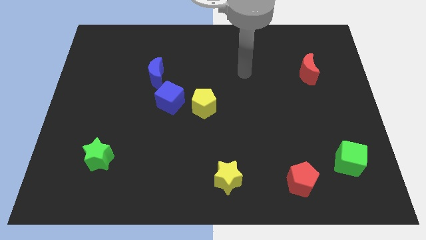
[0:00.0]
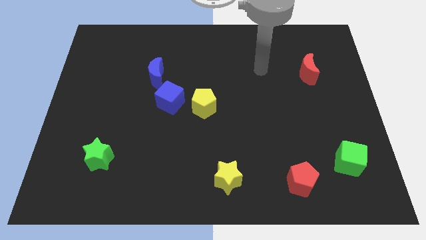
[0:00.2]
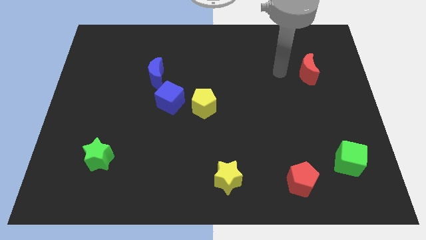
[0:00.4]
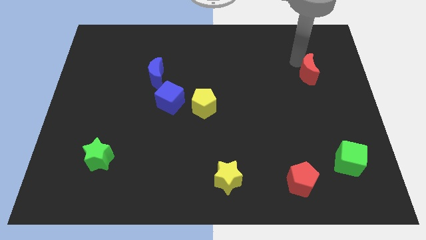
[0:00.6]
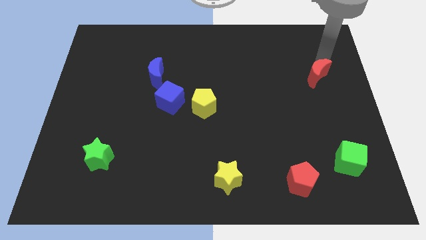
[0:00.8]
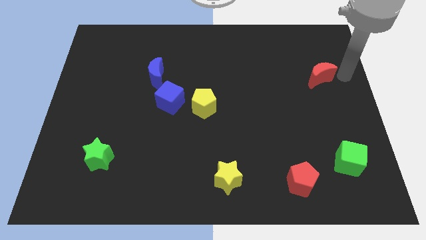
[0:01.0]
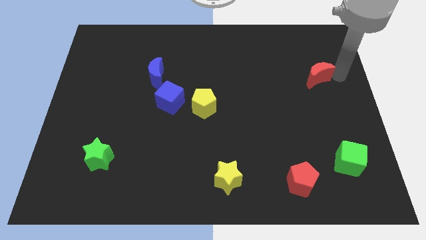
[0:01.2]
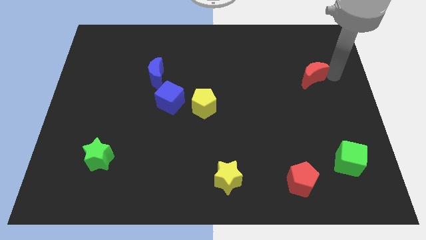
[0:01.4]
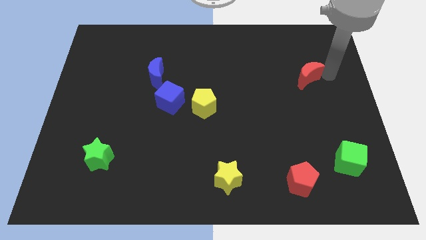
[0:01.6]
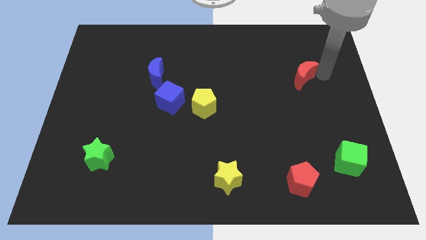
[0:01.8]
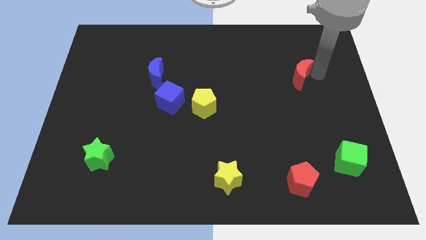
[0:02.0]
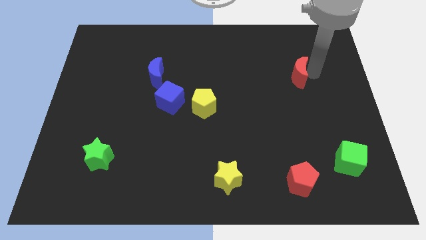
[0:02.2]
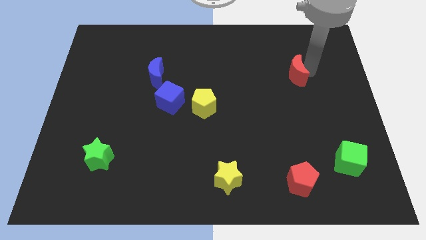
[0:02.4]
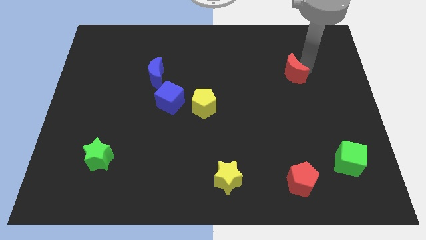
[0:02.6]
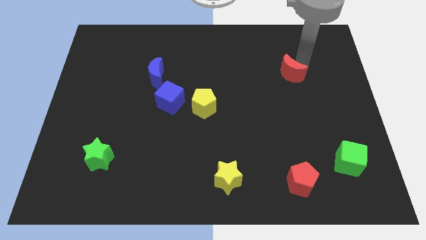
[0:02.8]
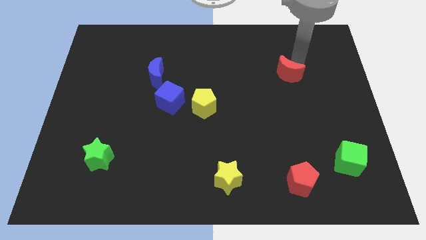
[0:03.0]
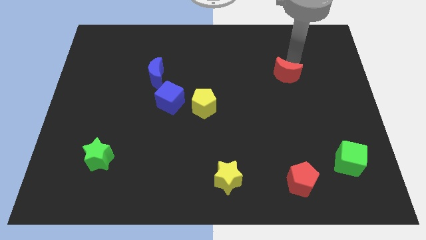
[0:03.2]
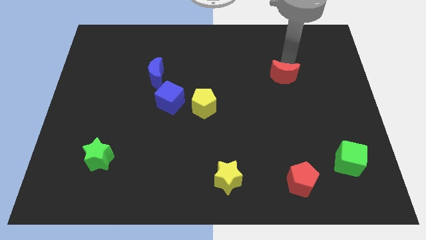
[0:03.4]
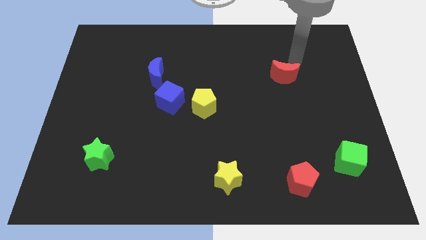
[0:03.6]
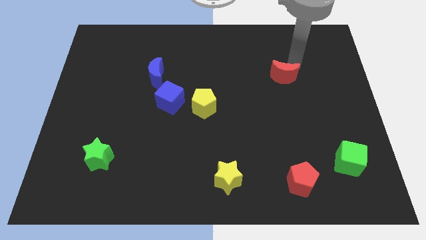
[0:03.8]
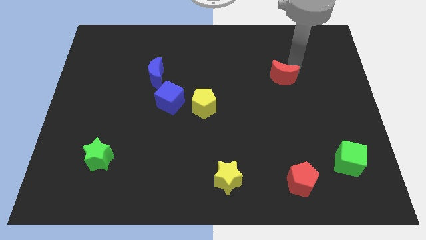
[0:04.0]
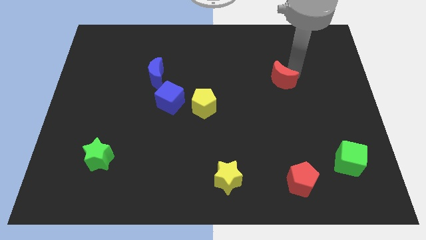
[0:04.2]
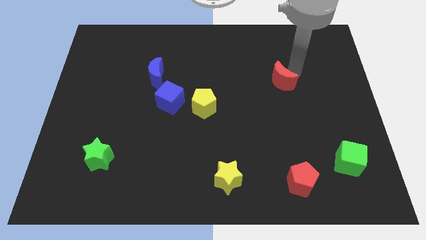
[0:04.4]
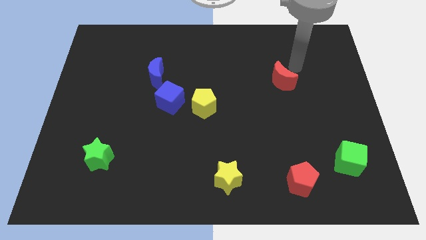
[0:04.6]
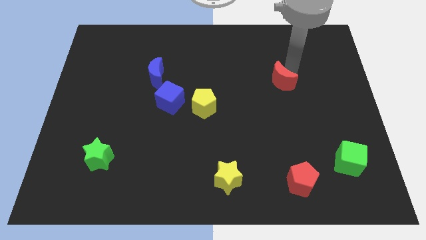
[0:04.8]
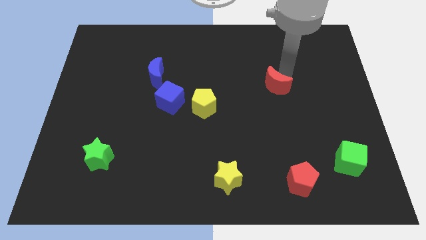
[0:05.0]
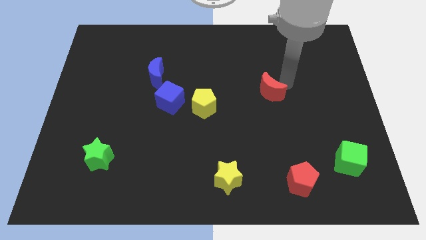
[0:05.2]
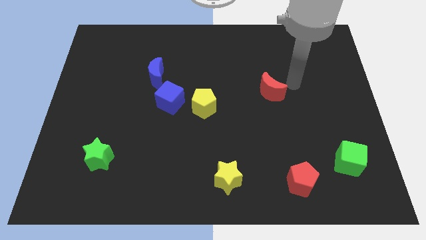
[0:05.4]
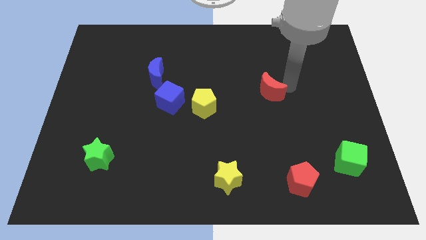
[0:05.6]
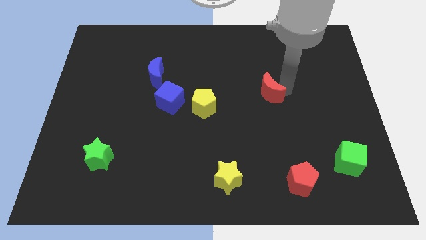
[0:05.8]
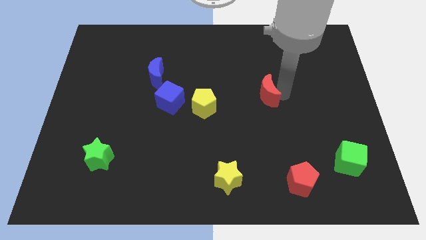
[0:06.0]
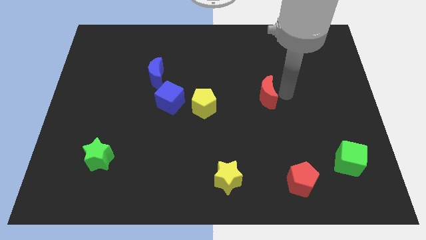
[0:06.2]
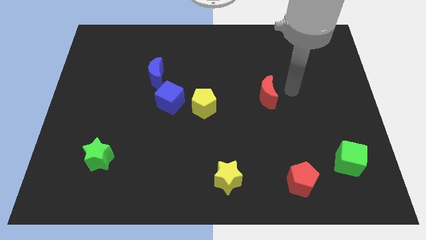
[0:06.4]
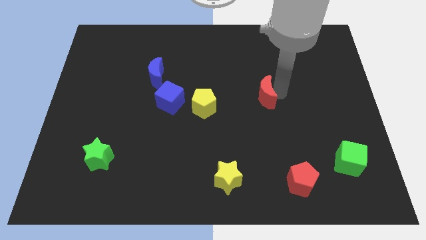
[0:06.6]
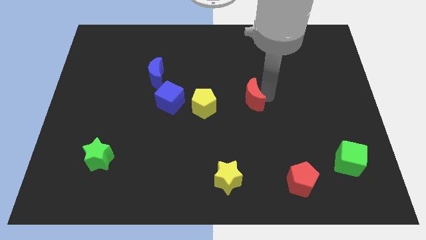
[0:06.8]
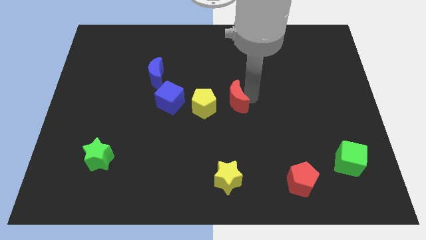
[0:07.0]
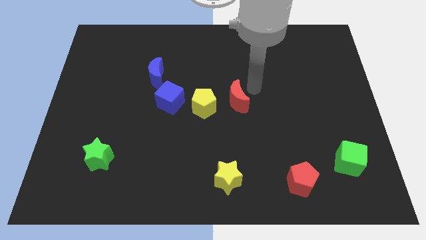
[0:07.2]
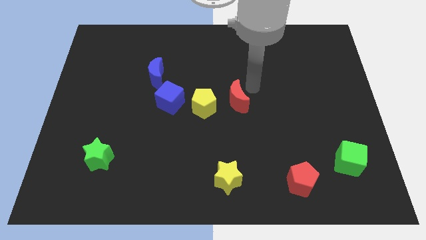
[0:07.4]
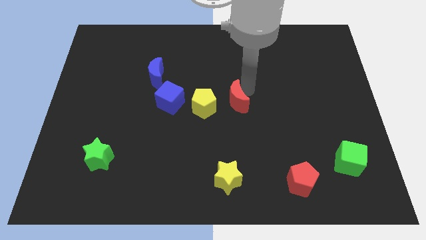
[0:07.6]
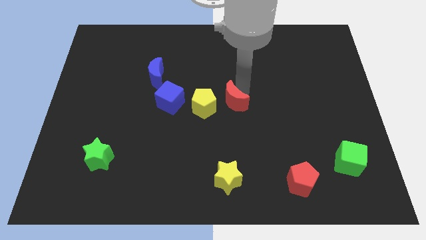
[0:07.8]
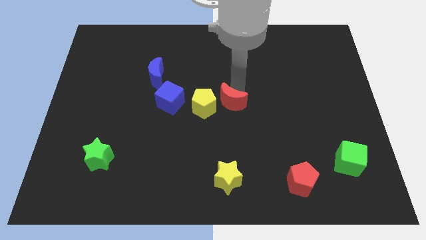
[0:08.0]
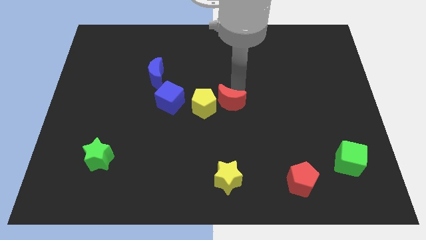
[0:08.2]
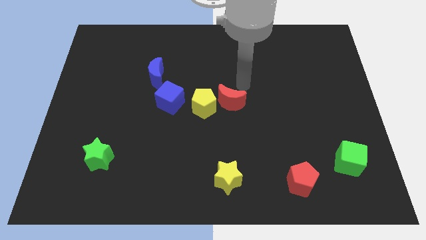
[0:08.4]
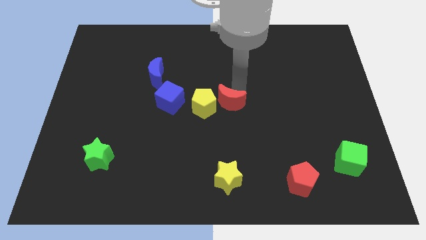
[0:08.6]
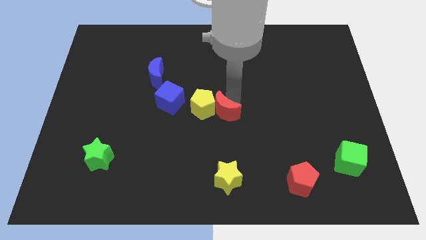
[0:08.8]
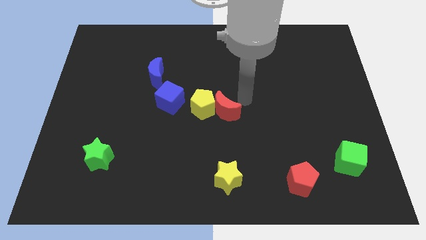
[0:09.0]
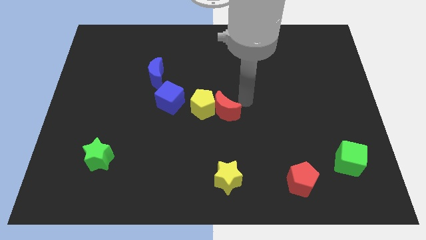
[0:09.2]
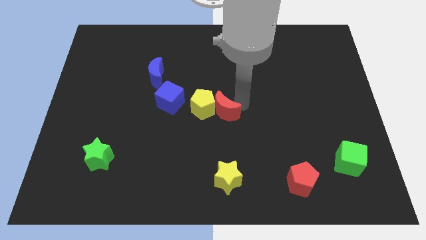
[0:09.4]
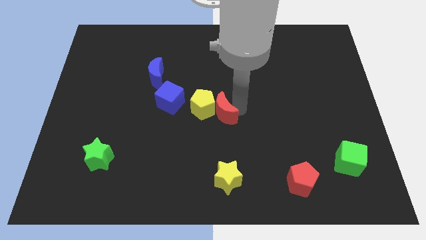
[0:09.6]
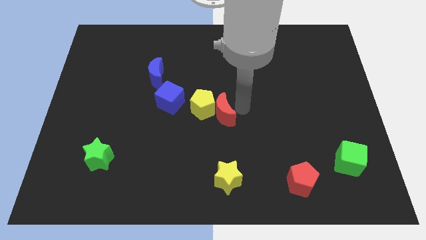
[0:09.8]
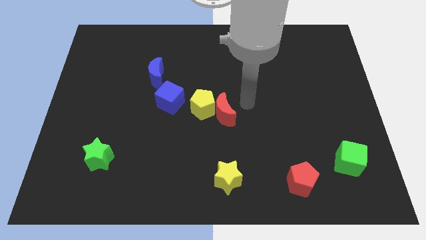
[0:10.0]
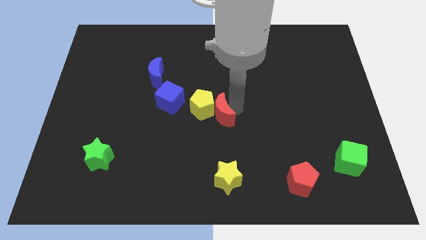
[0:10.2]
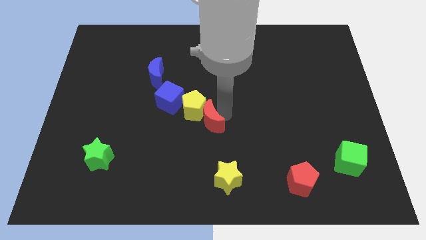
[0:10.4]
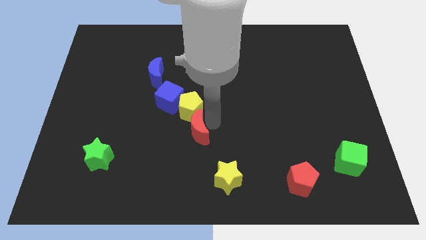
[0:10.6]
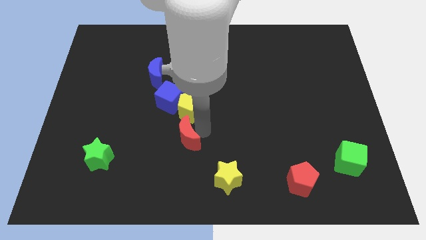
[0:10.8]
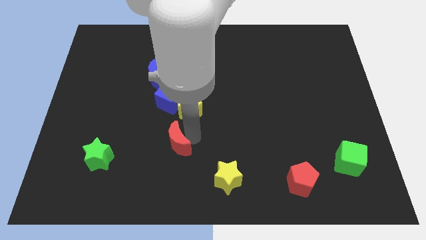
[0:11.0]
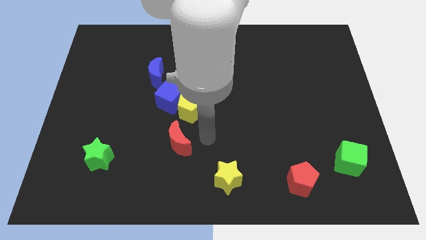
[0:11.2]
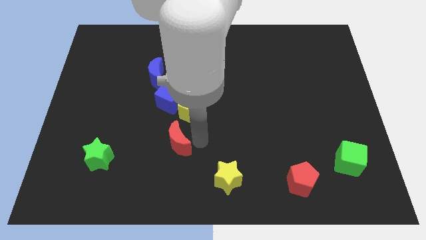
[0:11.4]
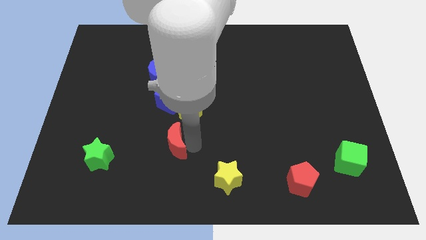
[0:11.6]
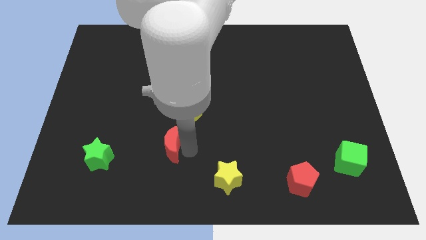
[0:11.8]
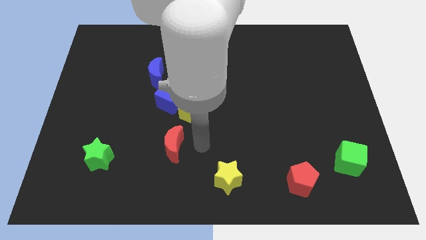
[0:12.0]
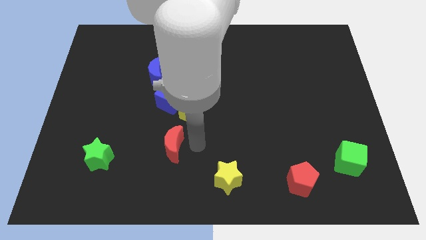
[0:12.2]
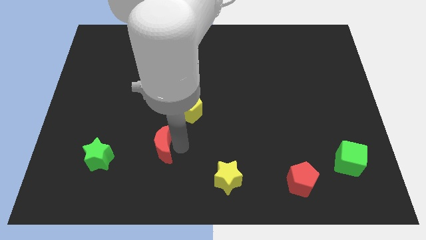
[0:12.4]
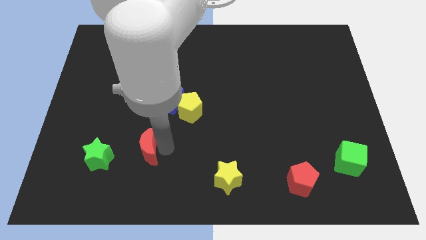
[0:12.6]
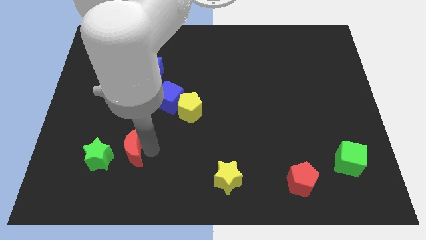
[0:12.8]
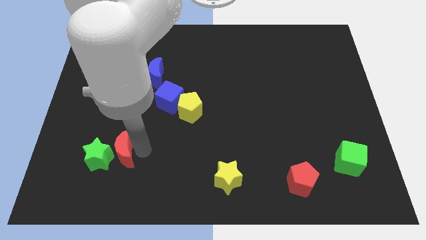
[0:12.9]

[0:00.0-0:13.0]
put the red moon next to the green star
